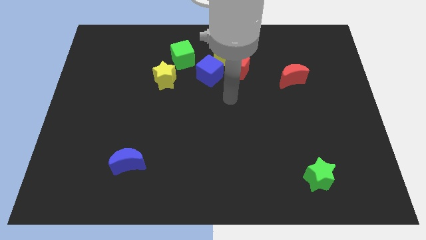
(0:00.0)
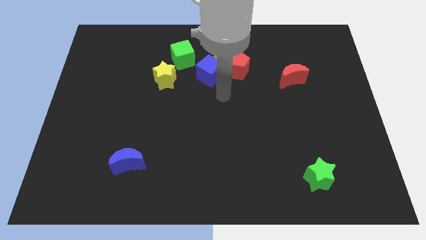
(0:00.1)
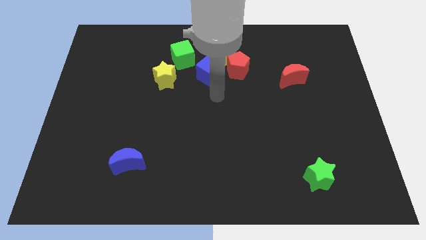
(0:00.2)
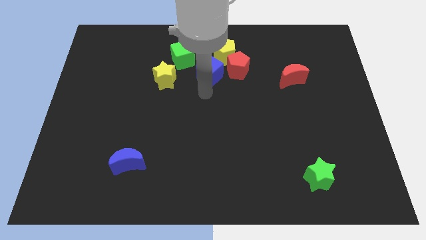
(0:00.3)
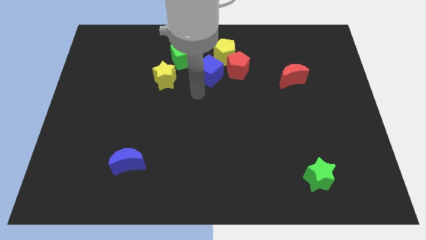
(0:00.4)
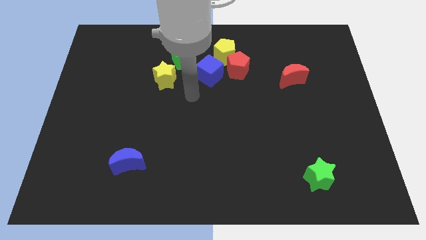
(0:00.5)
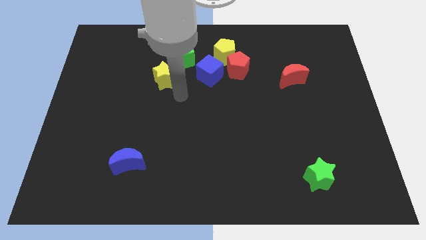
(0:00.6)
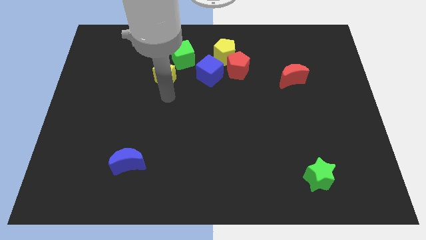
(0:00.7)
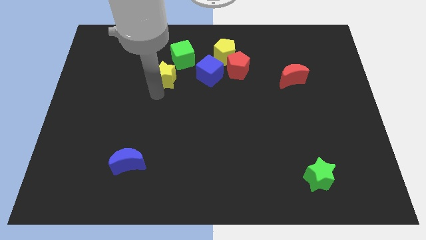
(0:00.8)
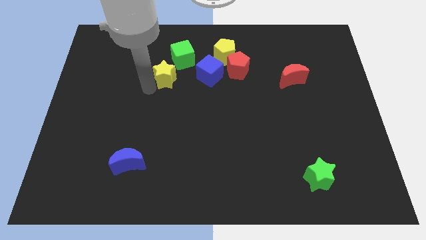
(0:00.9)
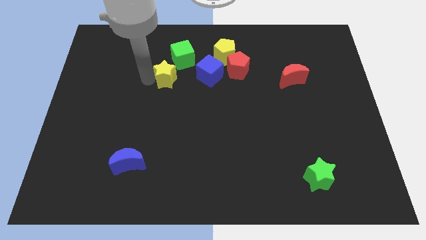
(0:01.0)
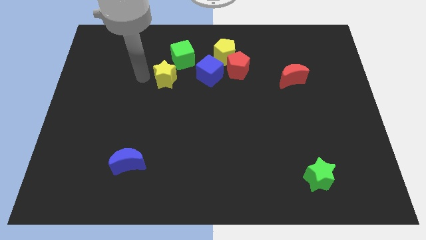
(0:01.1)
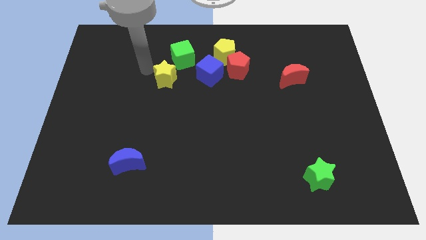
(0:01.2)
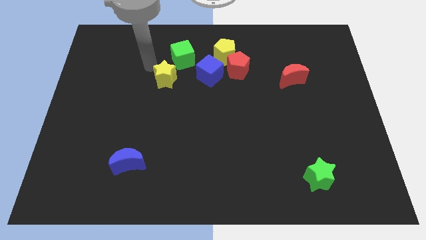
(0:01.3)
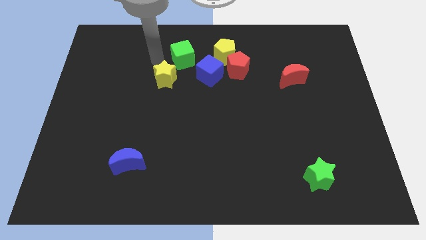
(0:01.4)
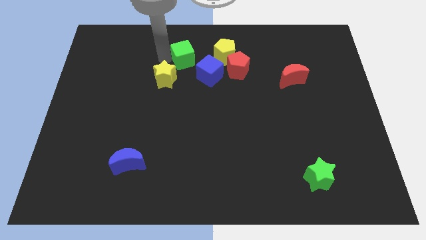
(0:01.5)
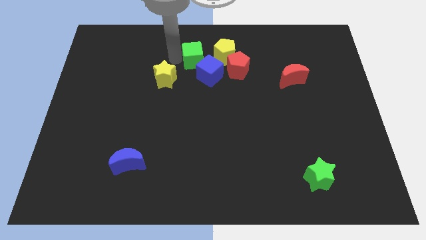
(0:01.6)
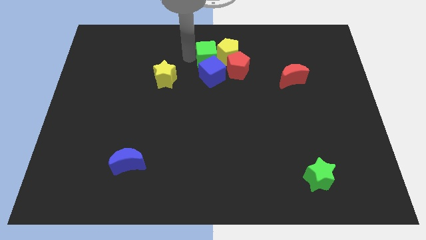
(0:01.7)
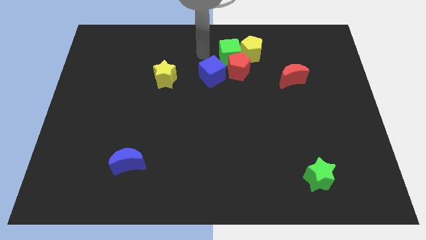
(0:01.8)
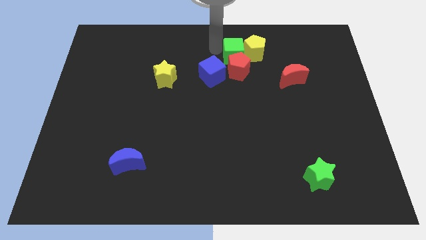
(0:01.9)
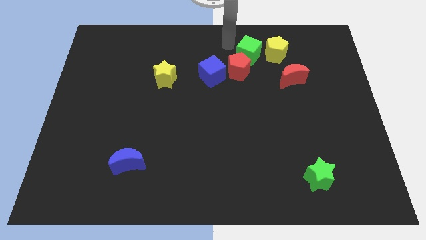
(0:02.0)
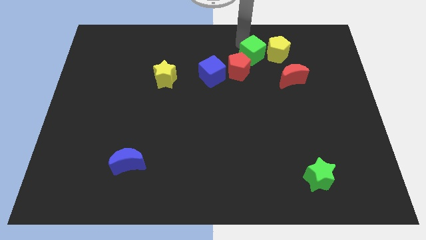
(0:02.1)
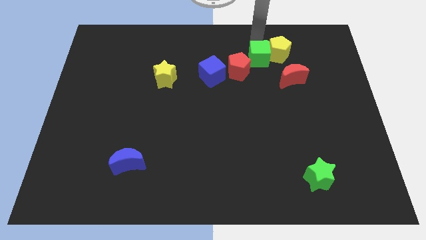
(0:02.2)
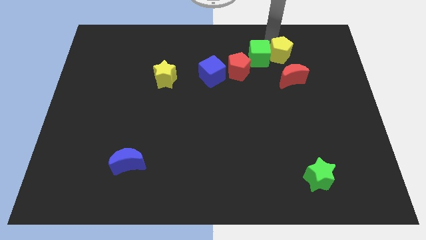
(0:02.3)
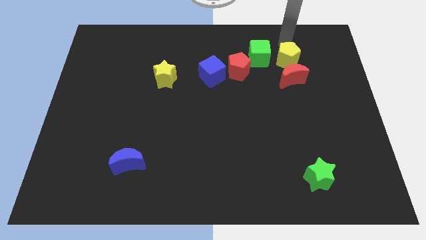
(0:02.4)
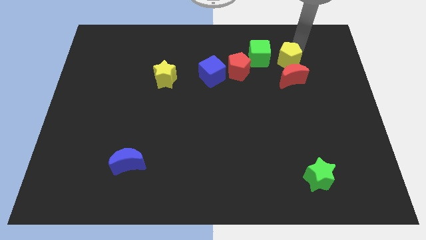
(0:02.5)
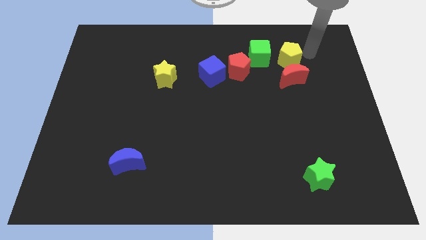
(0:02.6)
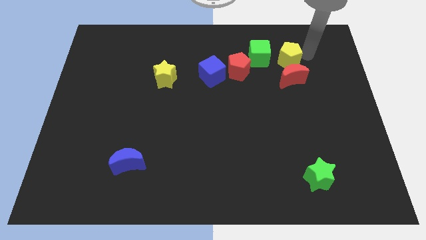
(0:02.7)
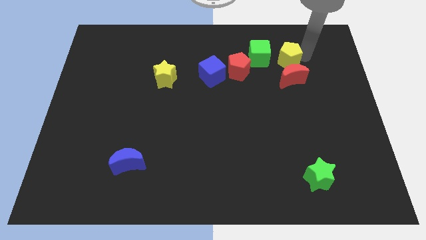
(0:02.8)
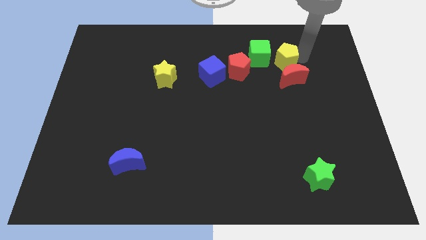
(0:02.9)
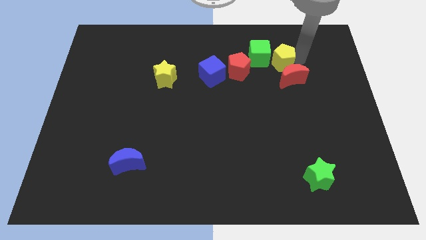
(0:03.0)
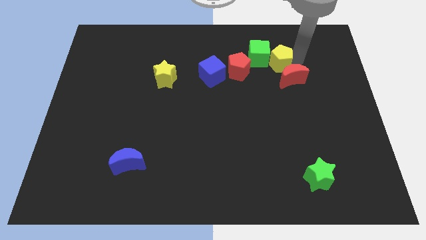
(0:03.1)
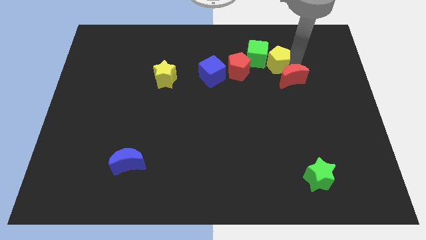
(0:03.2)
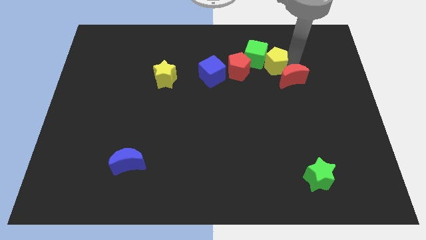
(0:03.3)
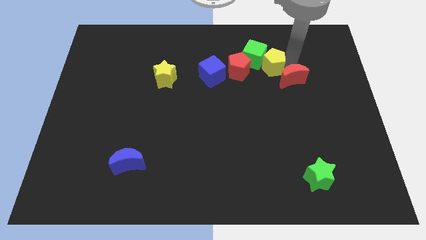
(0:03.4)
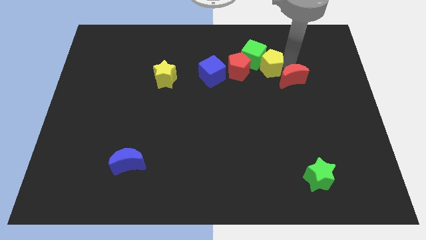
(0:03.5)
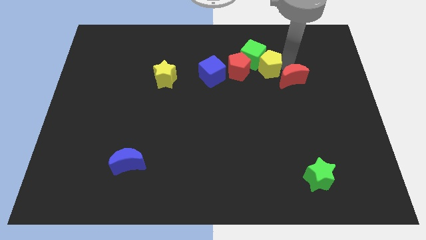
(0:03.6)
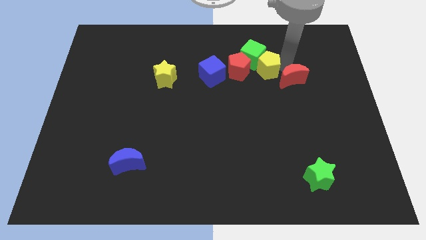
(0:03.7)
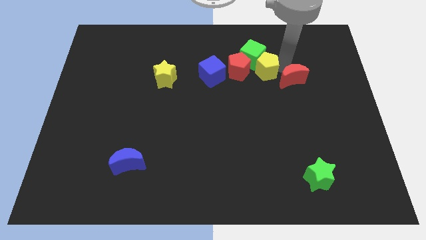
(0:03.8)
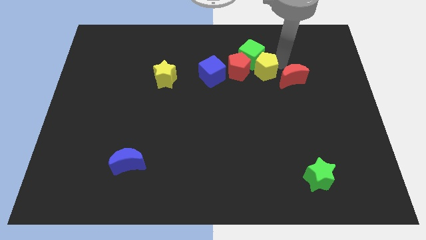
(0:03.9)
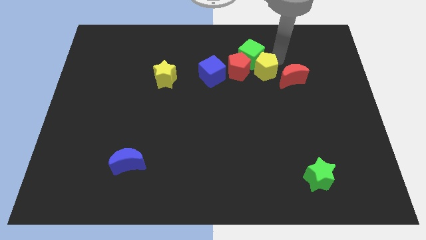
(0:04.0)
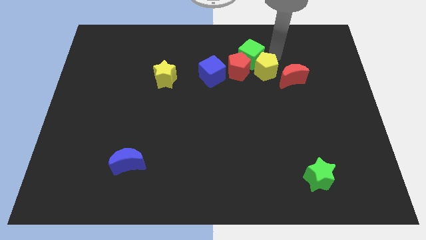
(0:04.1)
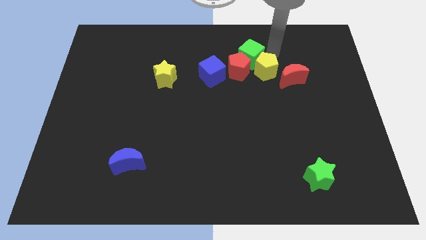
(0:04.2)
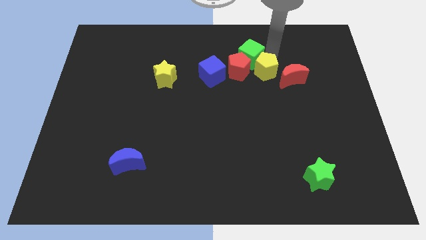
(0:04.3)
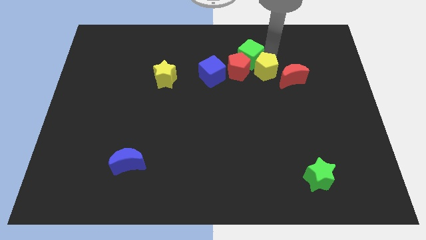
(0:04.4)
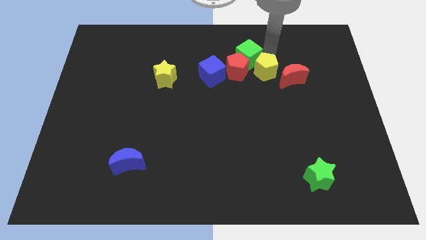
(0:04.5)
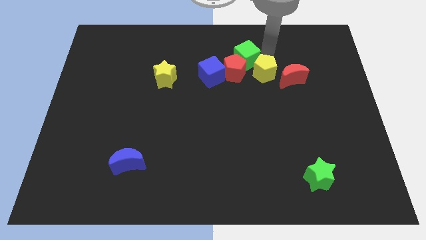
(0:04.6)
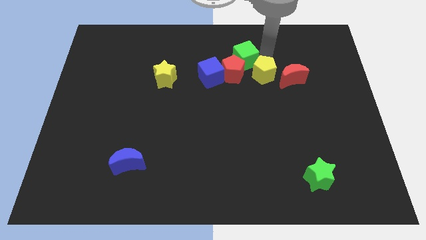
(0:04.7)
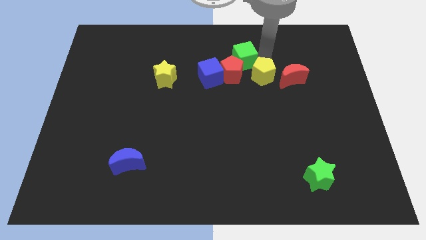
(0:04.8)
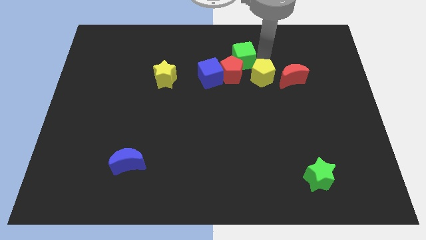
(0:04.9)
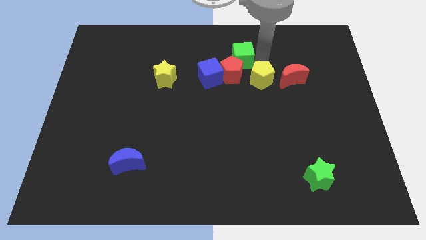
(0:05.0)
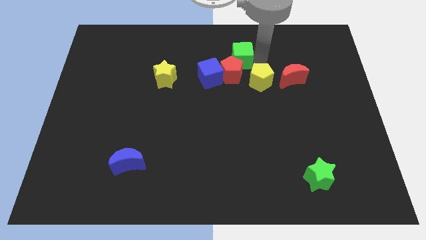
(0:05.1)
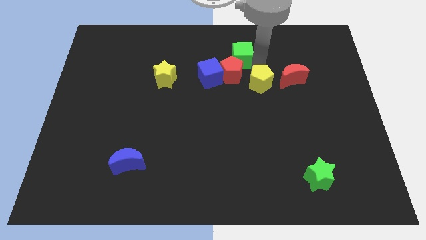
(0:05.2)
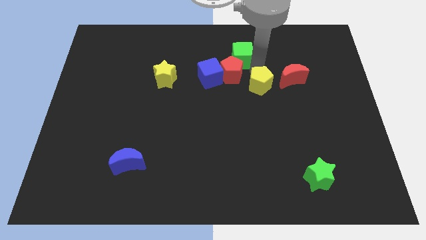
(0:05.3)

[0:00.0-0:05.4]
slide the yellow pentagon a bit down

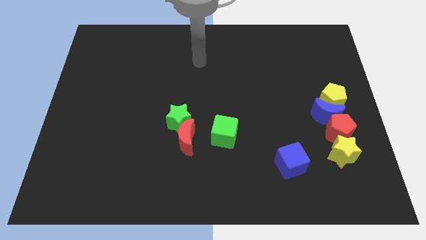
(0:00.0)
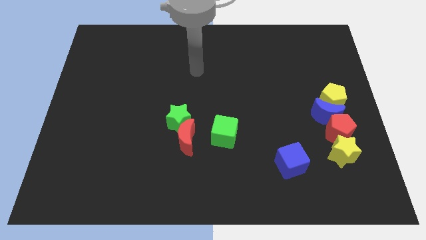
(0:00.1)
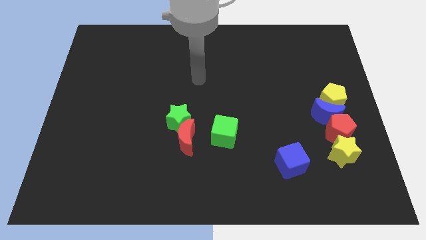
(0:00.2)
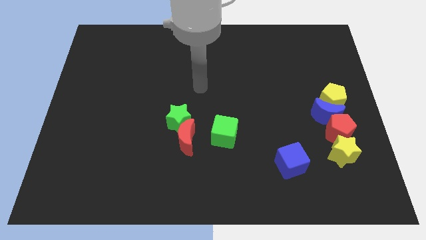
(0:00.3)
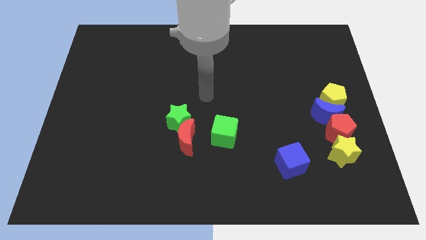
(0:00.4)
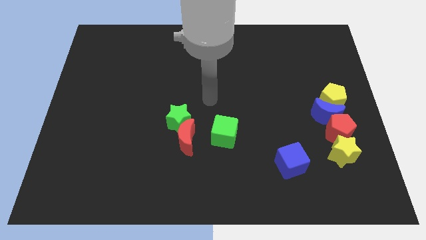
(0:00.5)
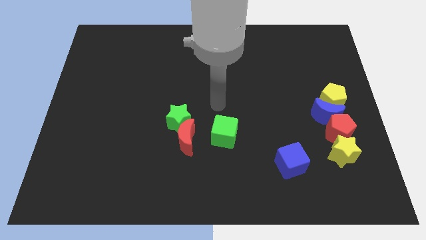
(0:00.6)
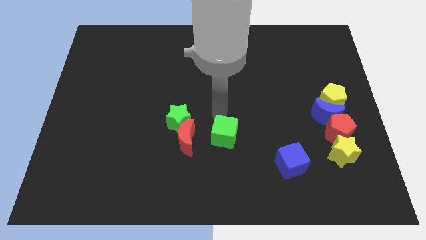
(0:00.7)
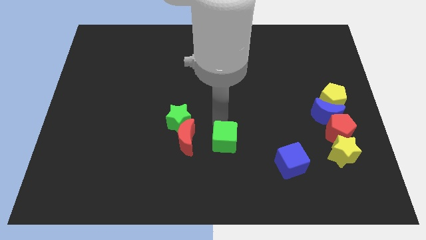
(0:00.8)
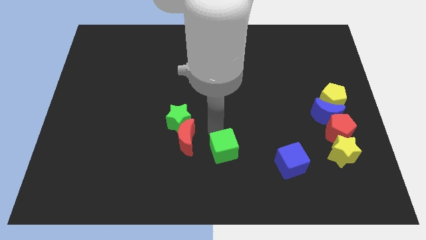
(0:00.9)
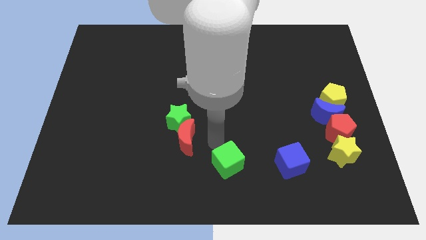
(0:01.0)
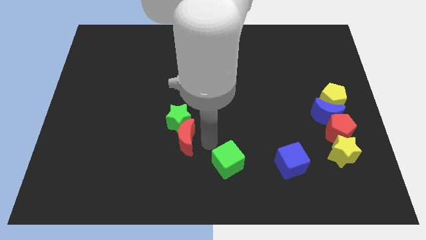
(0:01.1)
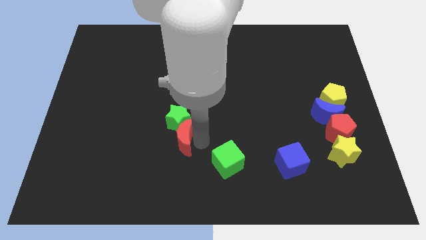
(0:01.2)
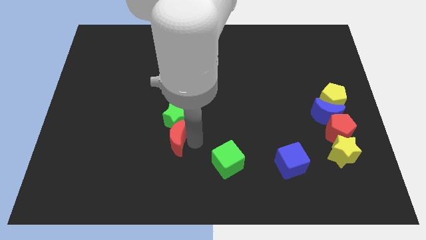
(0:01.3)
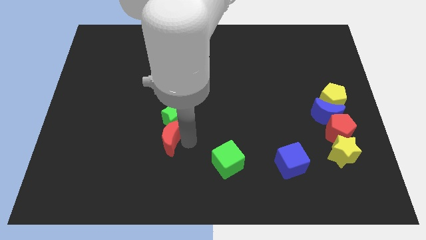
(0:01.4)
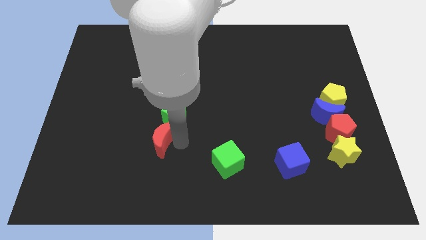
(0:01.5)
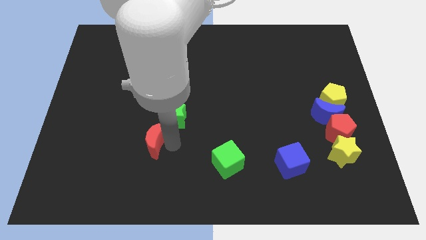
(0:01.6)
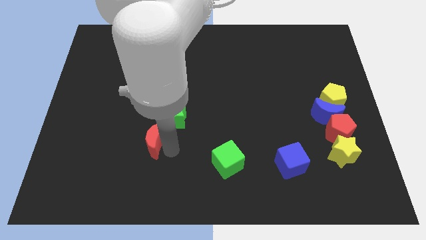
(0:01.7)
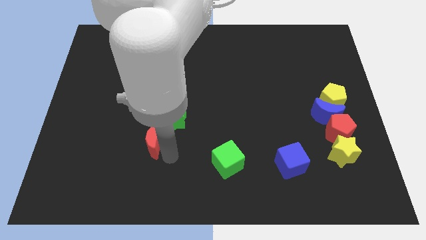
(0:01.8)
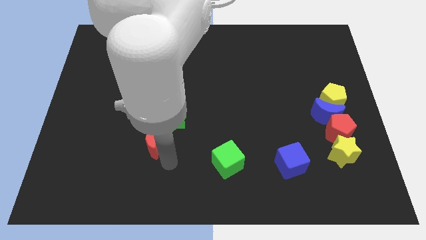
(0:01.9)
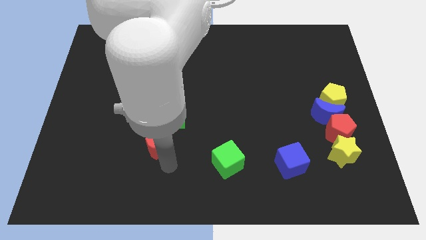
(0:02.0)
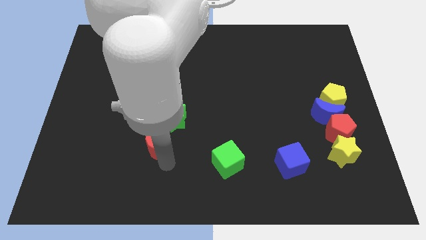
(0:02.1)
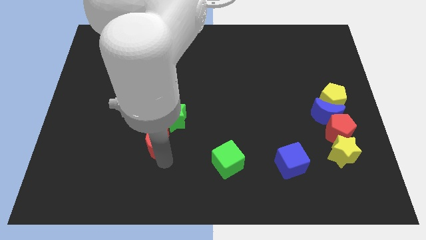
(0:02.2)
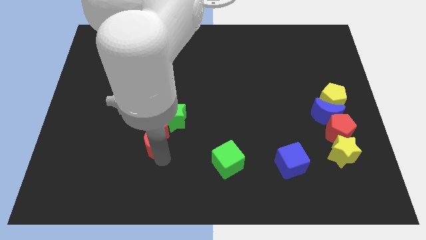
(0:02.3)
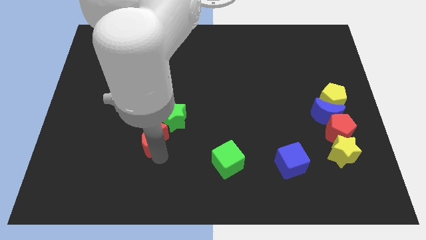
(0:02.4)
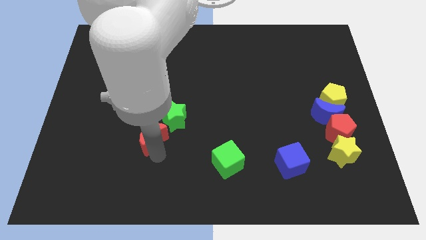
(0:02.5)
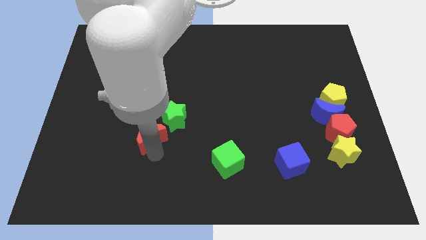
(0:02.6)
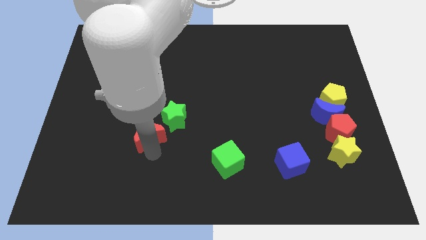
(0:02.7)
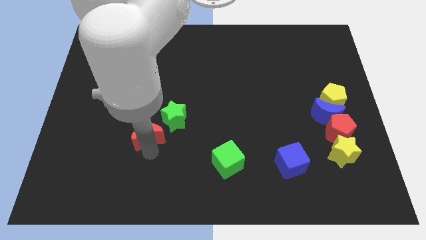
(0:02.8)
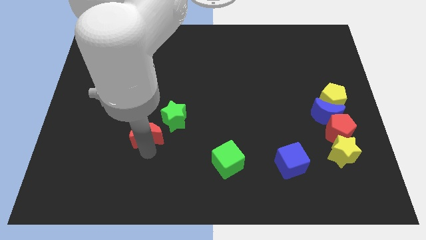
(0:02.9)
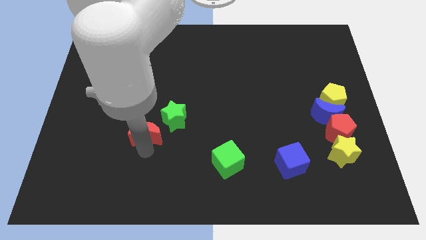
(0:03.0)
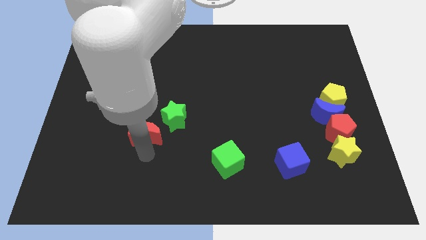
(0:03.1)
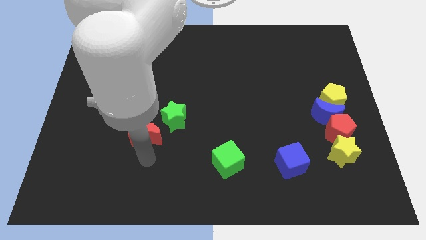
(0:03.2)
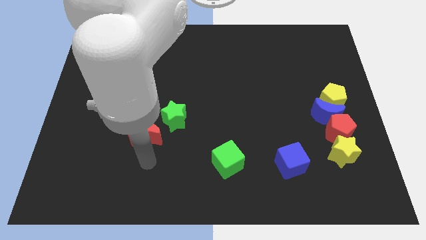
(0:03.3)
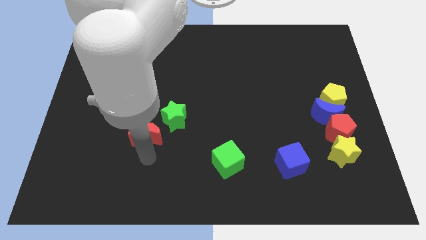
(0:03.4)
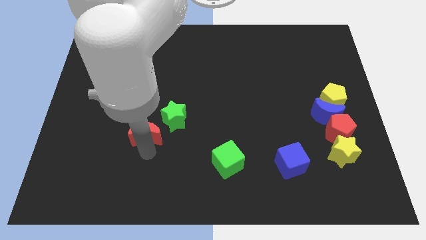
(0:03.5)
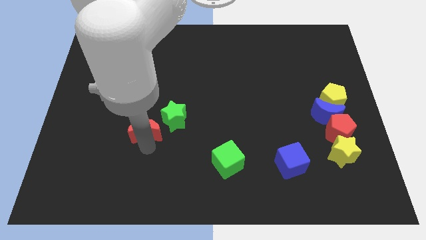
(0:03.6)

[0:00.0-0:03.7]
slide the red moon up and left diagonally a little bit
